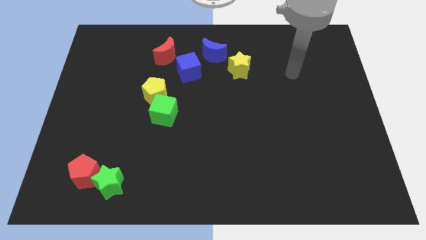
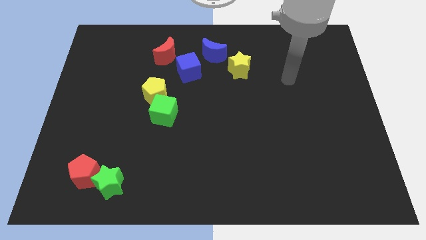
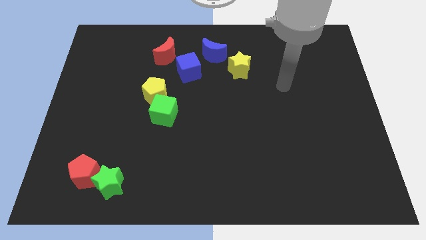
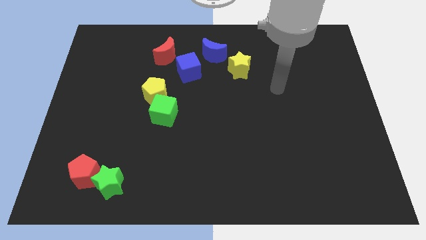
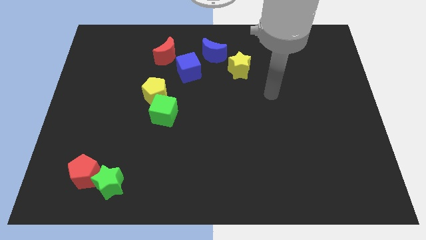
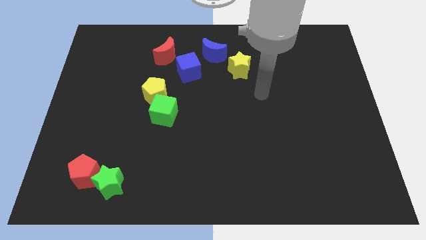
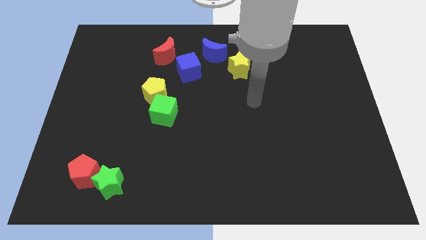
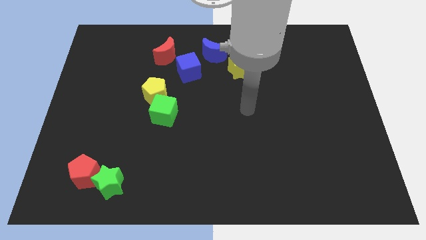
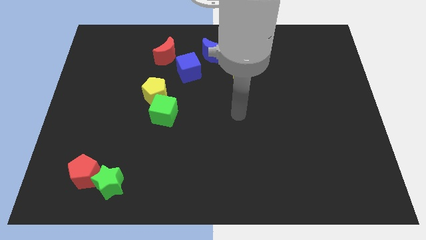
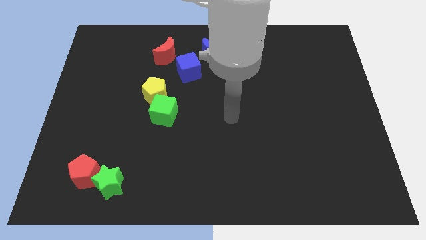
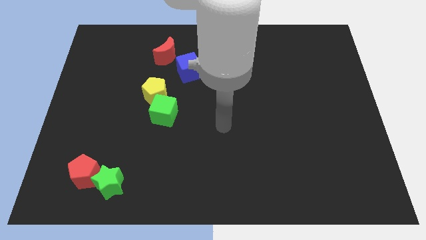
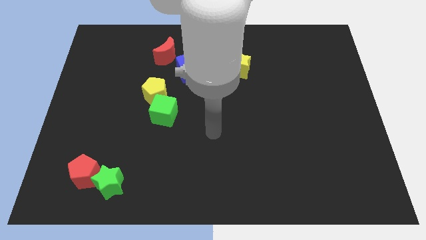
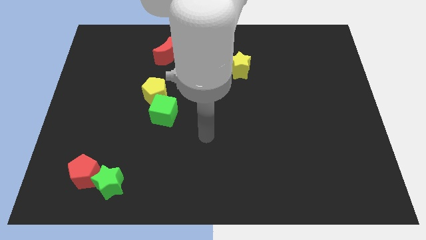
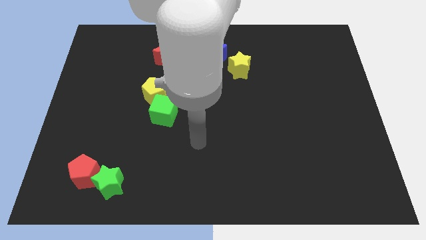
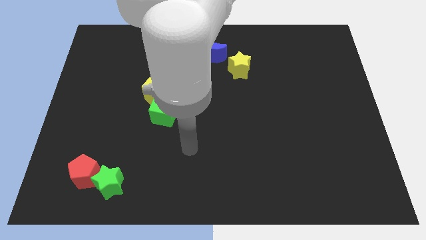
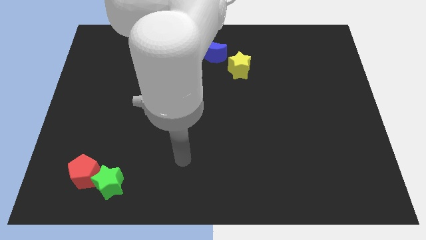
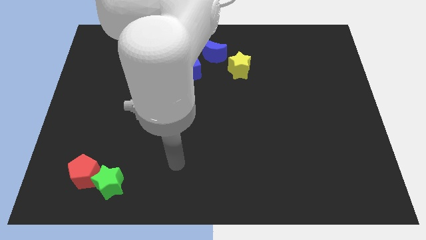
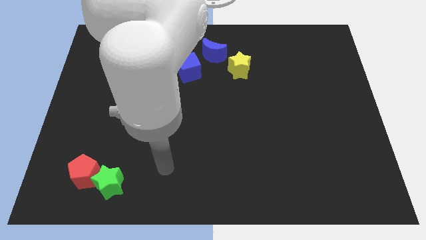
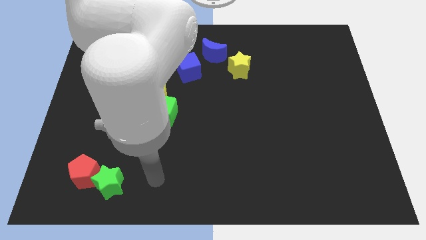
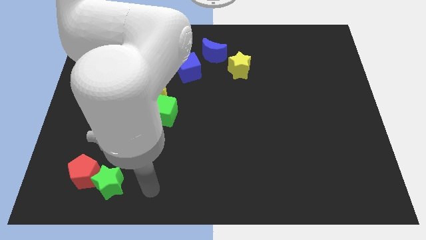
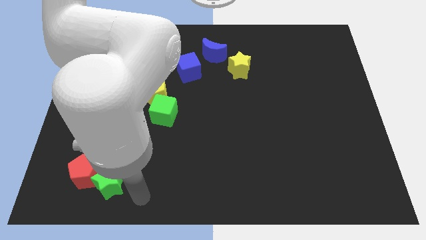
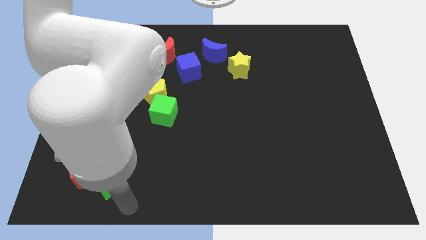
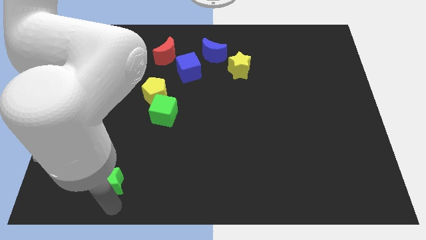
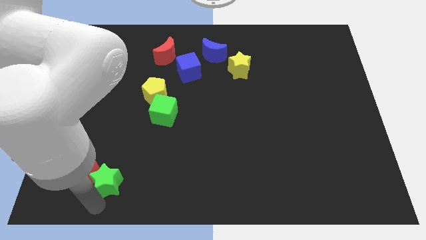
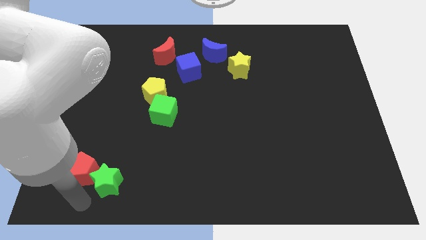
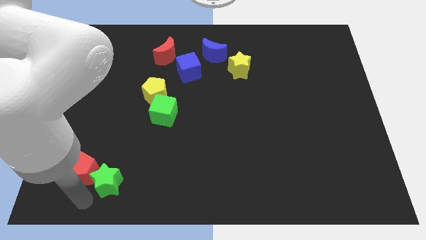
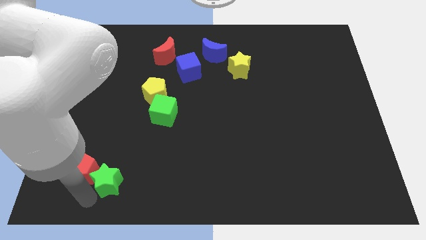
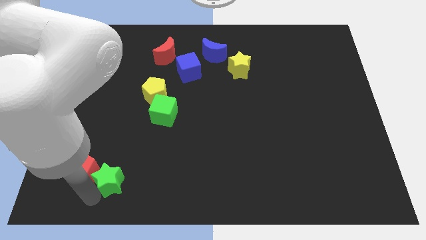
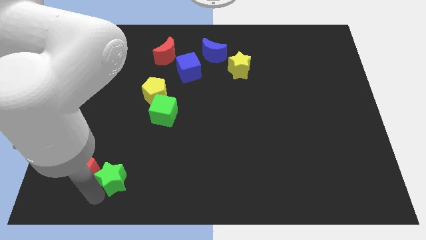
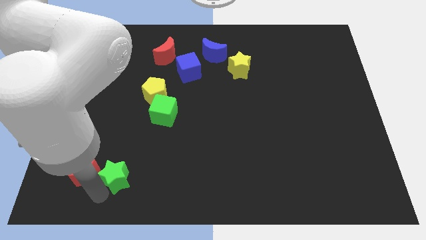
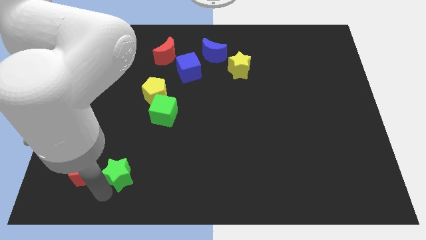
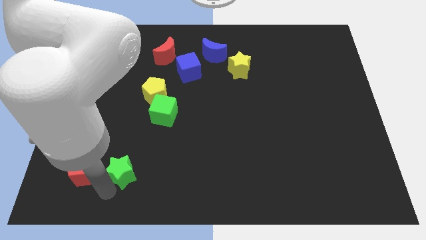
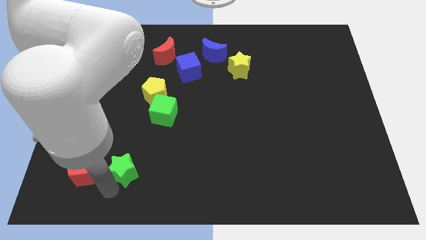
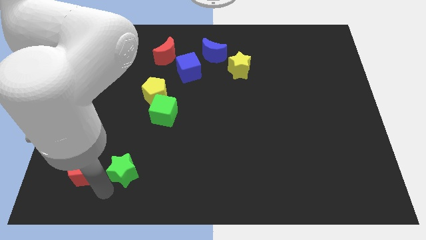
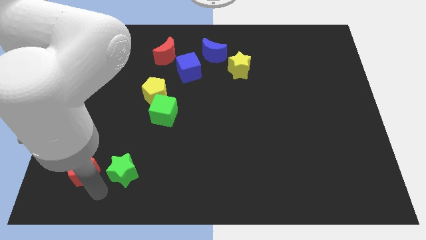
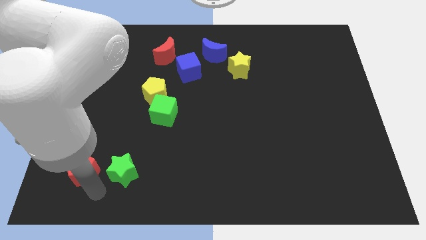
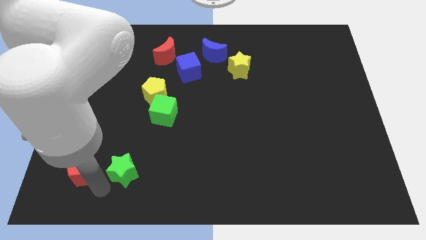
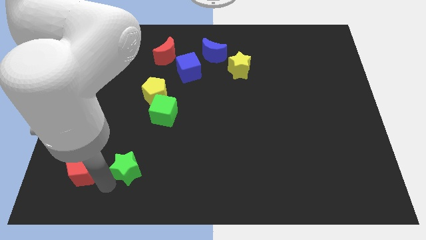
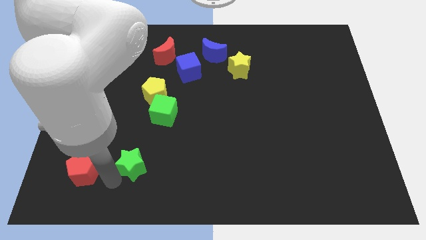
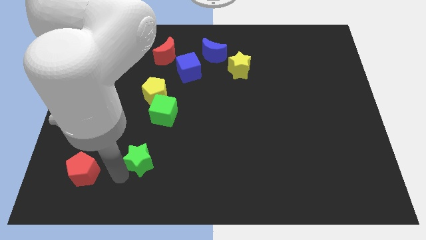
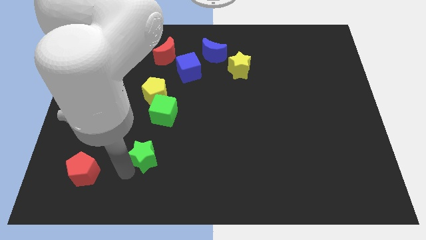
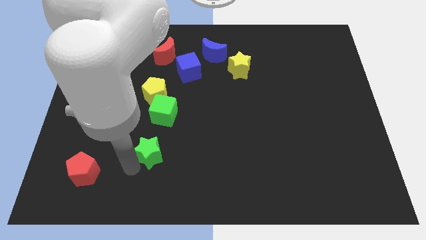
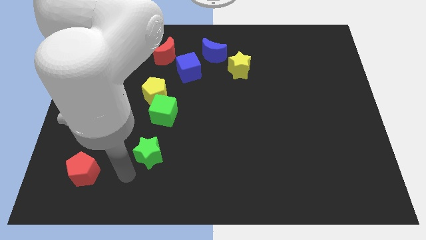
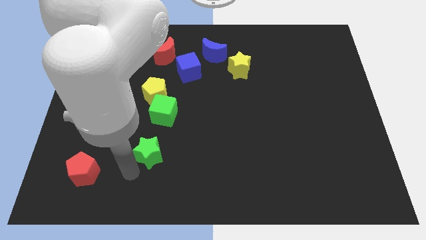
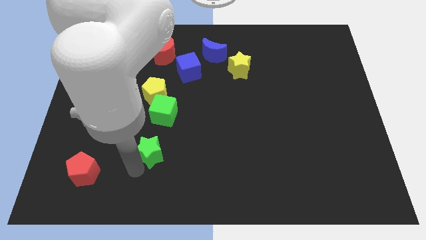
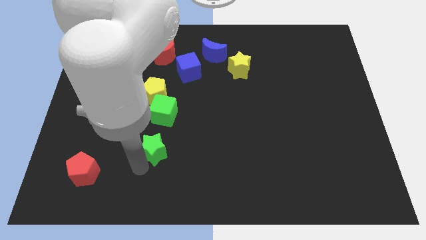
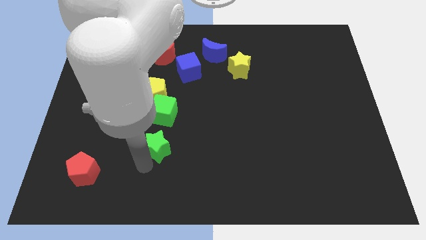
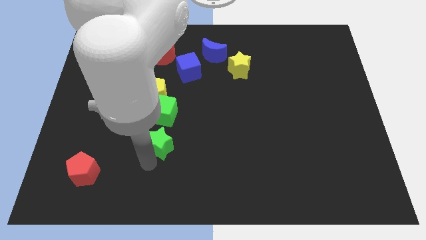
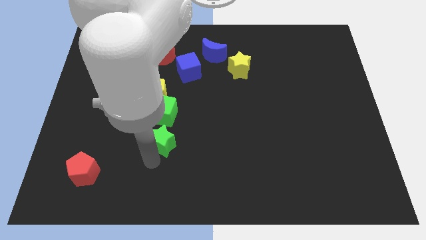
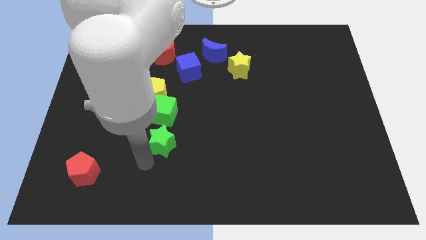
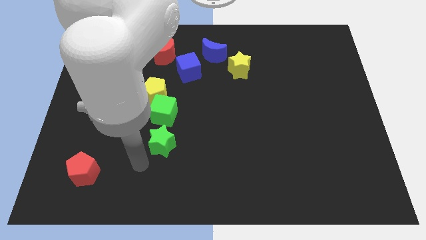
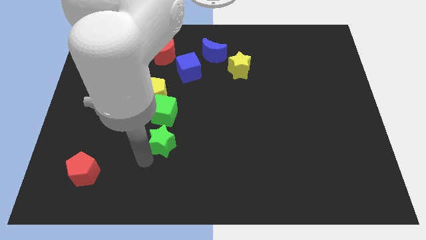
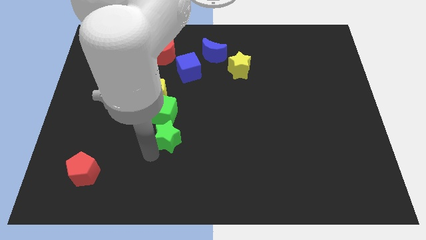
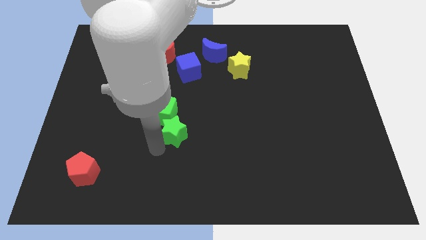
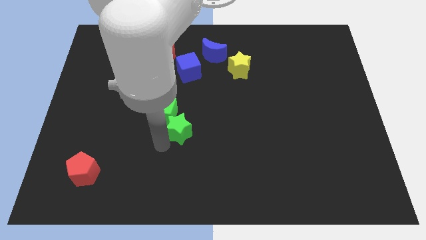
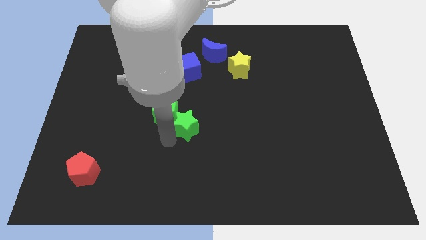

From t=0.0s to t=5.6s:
push the green star up and then right

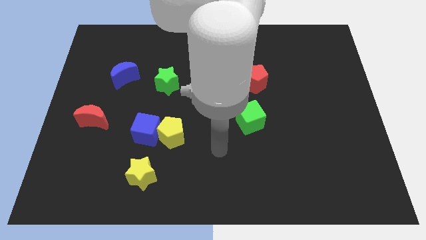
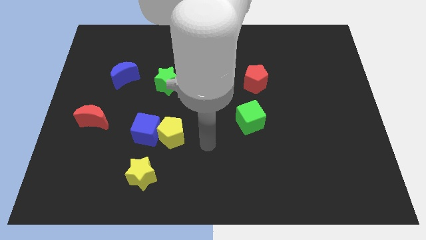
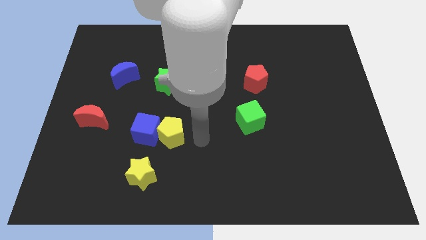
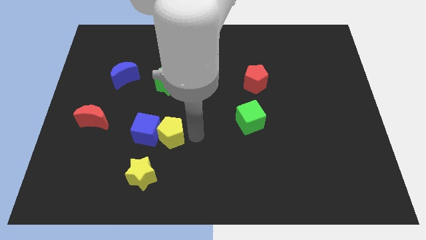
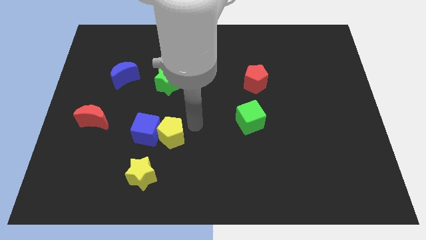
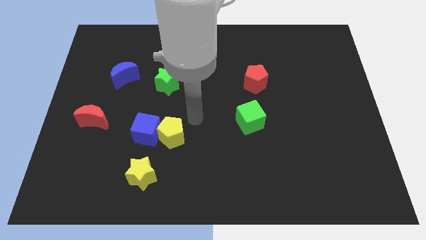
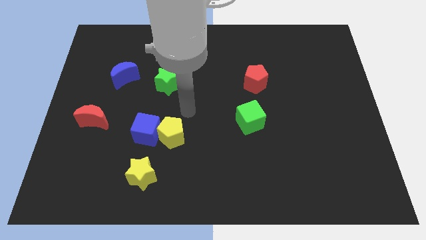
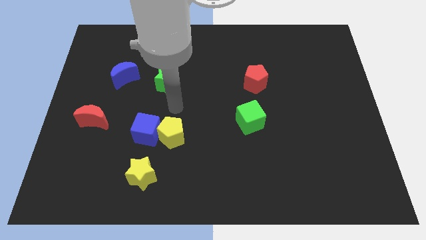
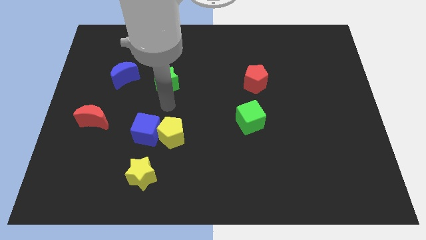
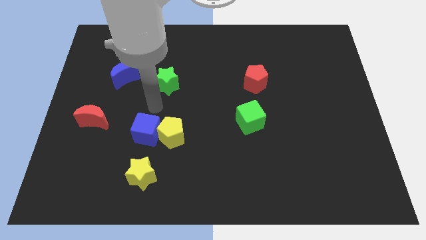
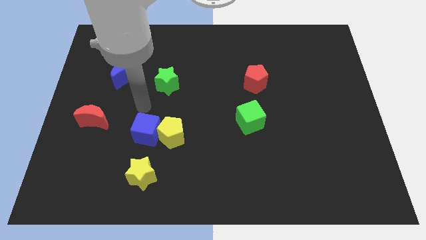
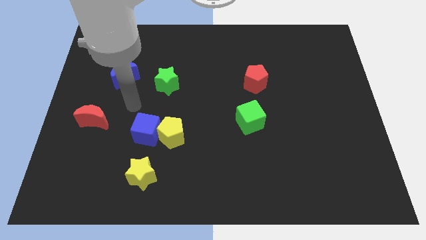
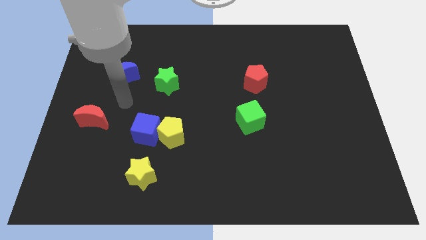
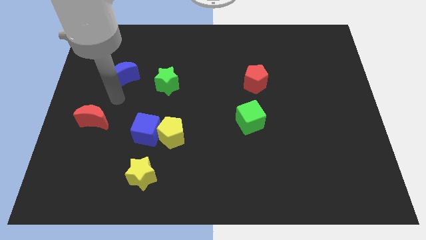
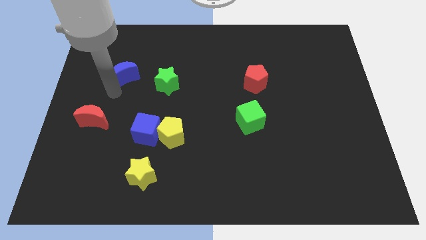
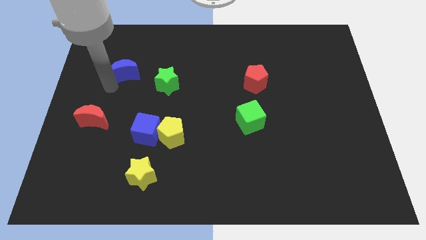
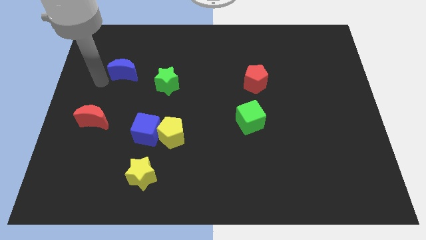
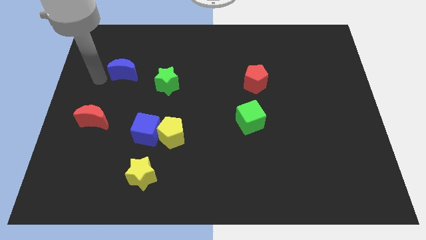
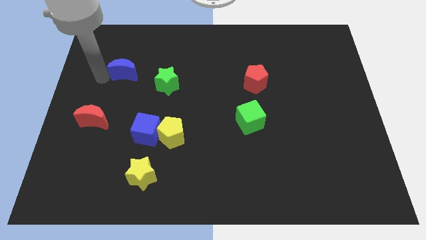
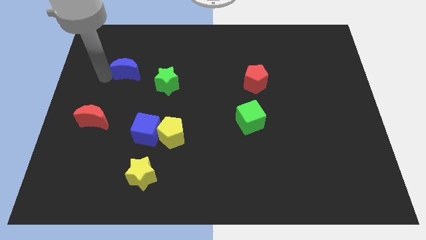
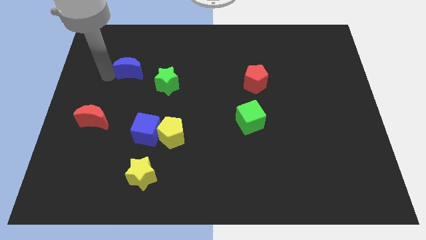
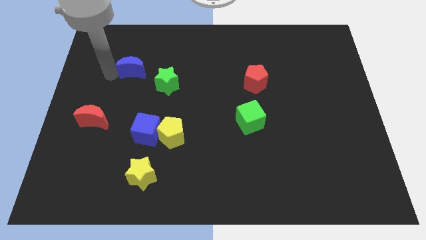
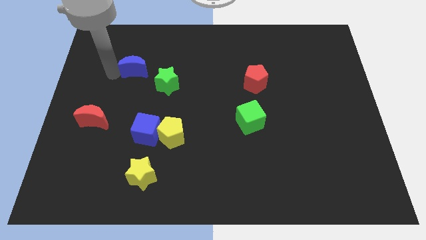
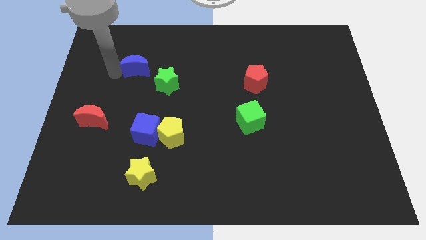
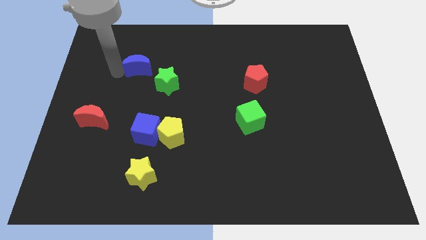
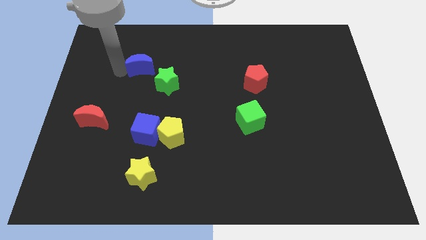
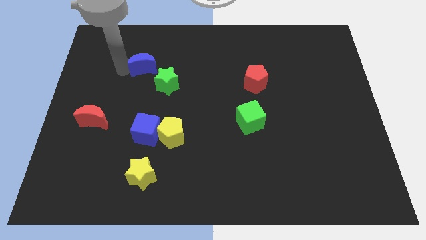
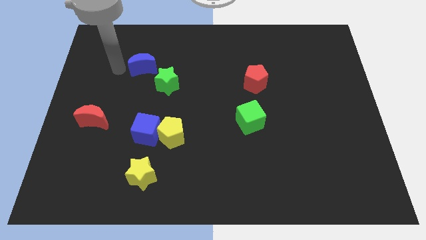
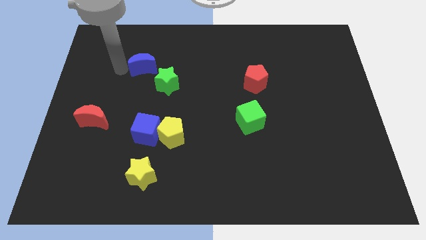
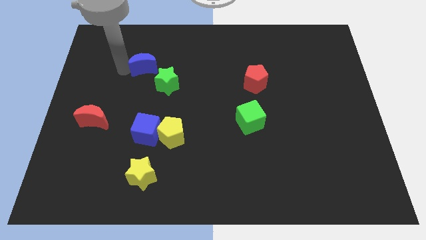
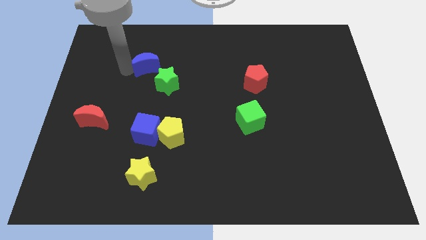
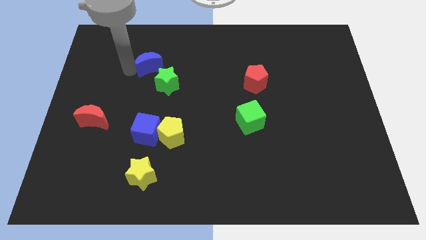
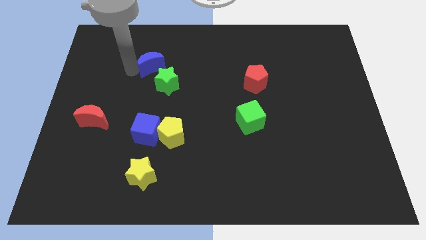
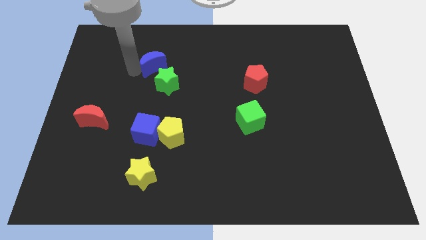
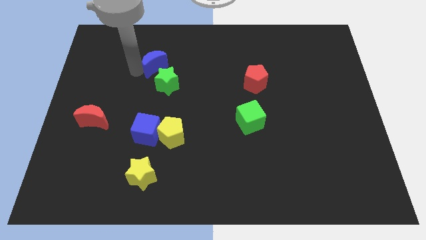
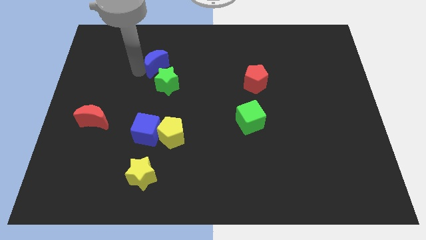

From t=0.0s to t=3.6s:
slide the blue moon a little to the right
